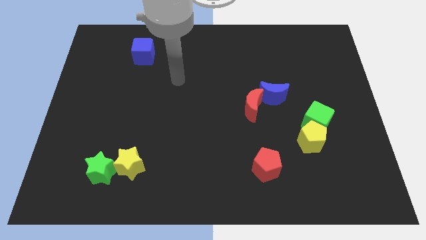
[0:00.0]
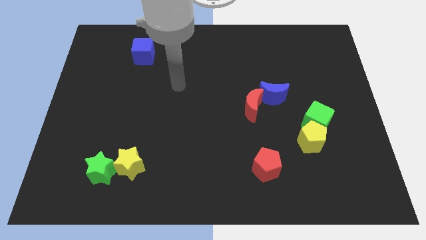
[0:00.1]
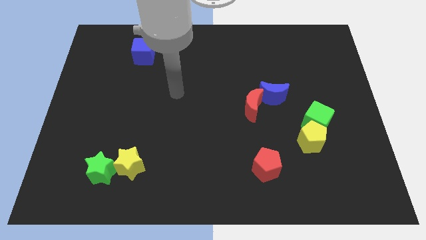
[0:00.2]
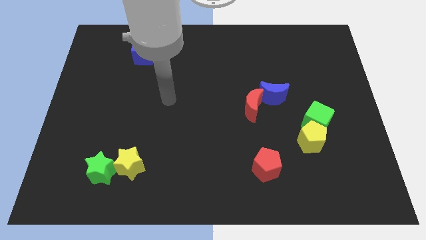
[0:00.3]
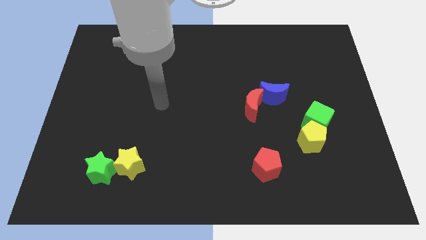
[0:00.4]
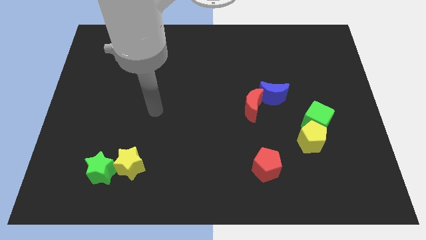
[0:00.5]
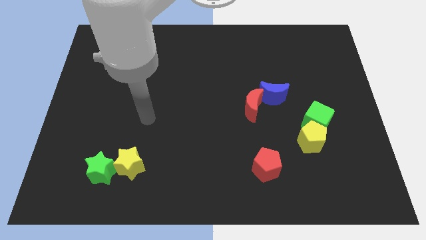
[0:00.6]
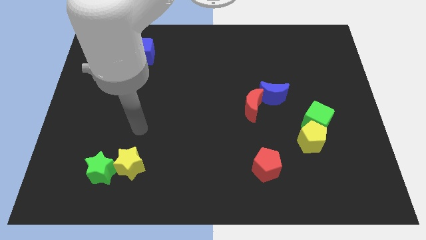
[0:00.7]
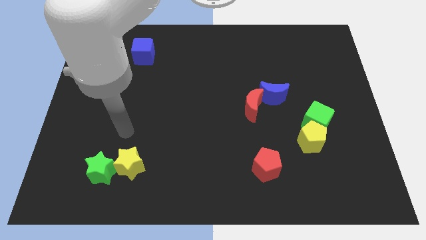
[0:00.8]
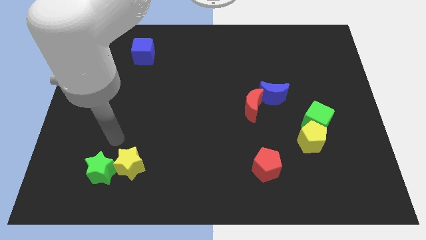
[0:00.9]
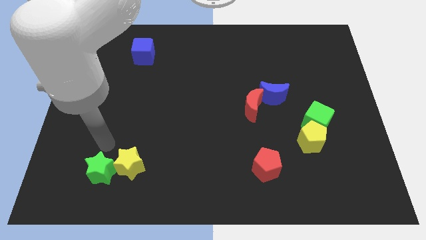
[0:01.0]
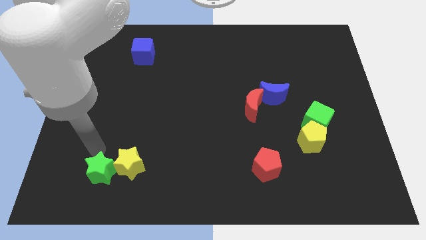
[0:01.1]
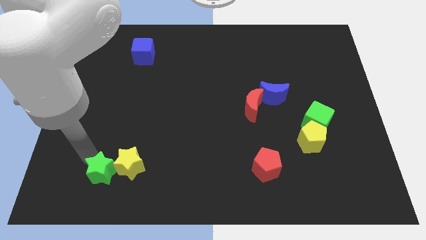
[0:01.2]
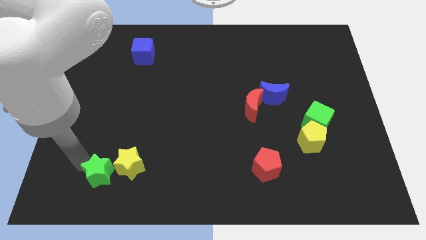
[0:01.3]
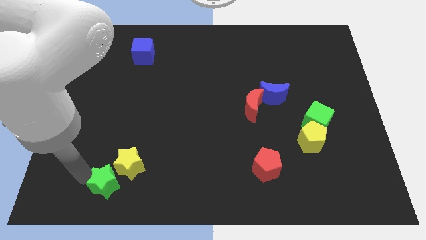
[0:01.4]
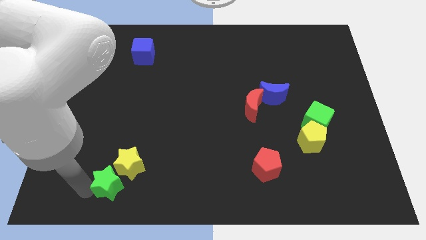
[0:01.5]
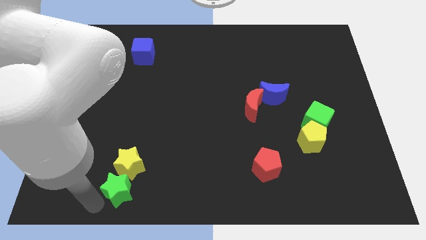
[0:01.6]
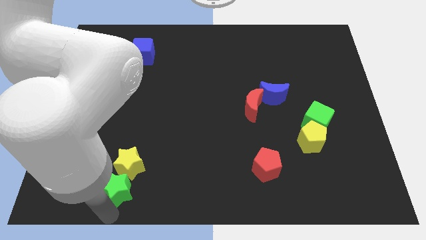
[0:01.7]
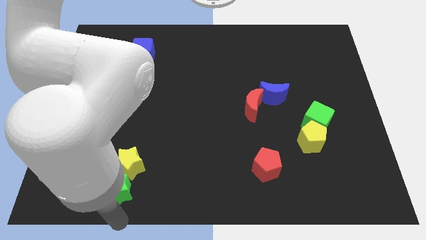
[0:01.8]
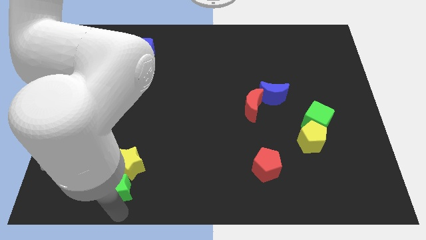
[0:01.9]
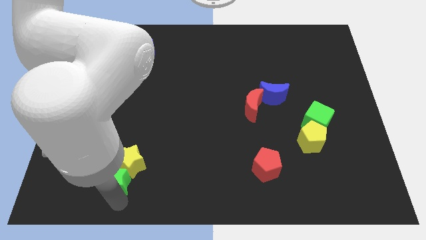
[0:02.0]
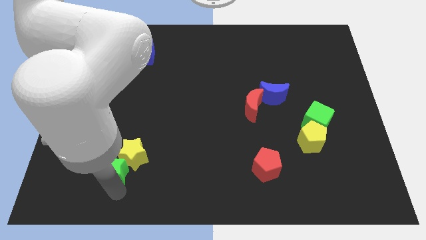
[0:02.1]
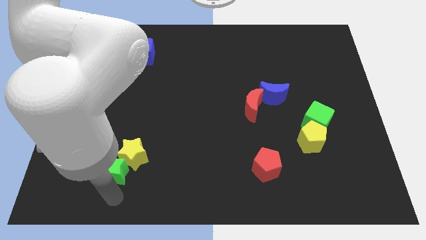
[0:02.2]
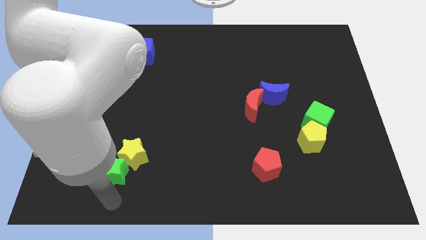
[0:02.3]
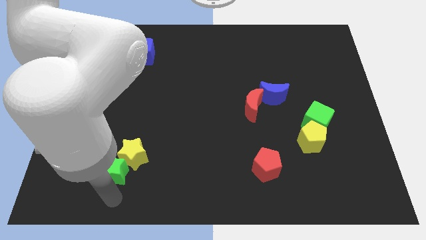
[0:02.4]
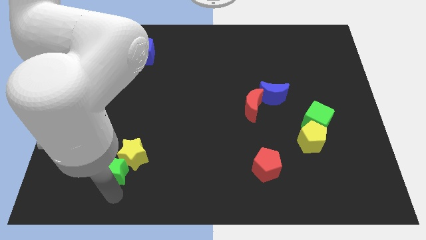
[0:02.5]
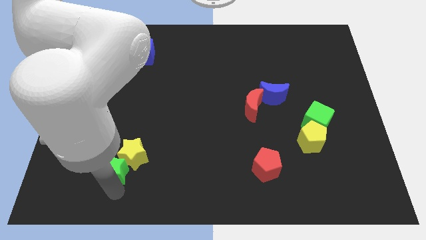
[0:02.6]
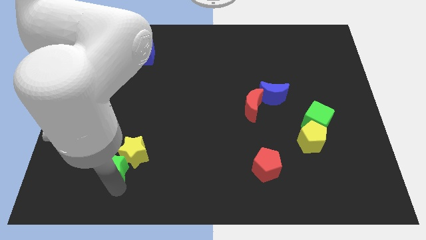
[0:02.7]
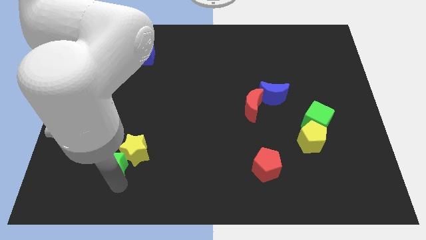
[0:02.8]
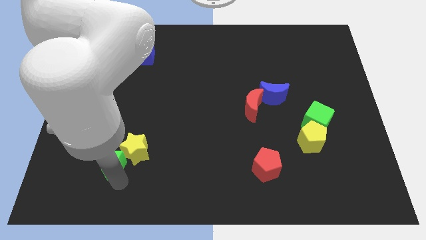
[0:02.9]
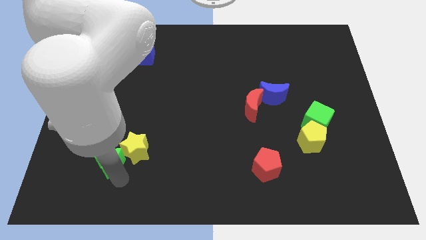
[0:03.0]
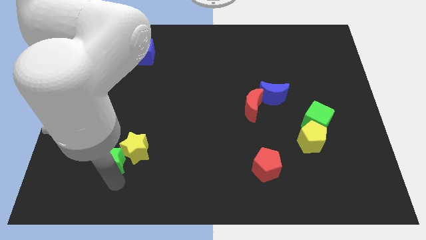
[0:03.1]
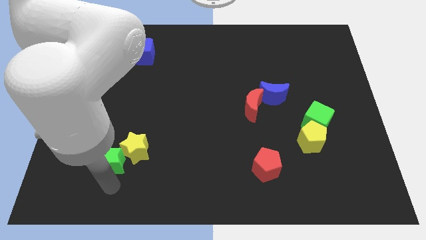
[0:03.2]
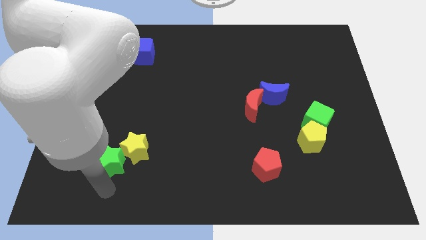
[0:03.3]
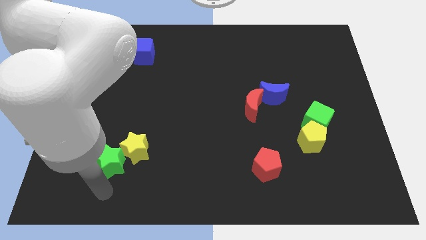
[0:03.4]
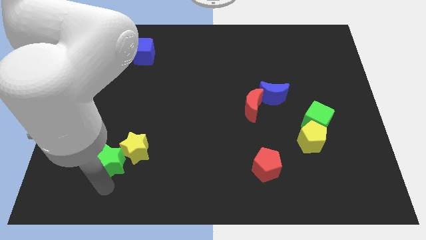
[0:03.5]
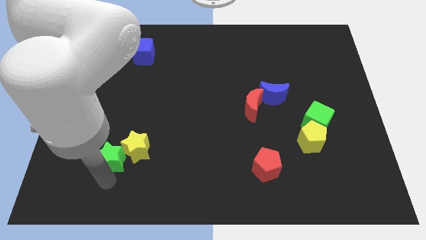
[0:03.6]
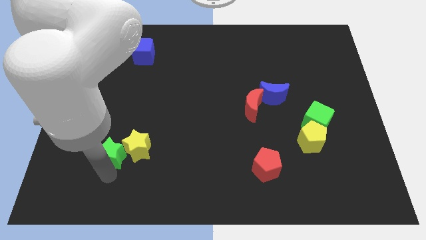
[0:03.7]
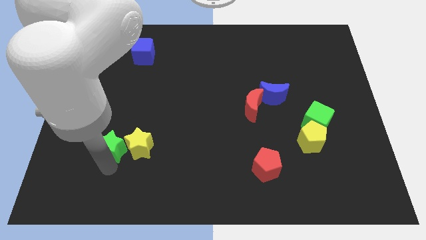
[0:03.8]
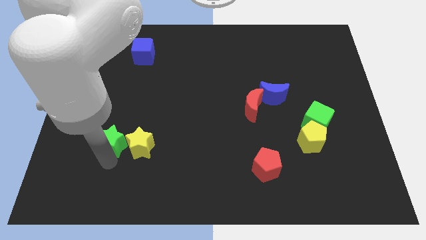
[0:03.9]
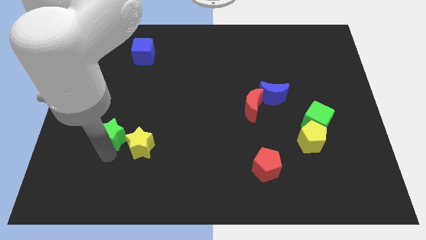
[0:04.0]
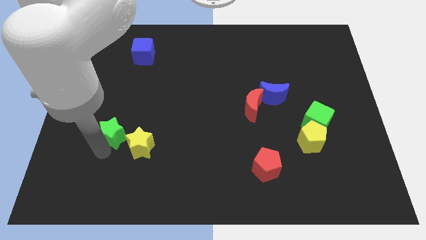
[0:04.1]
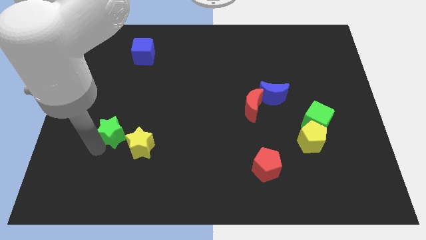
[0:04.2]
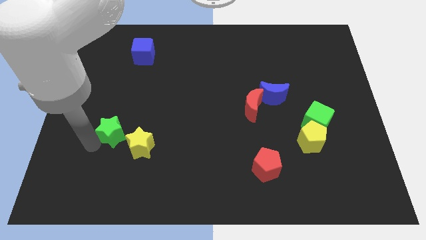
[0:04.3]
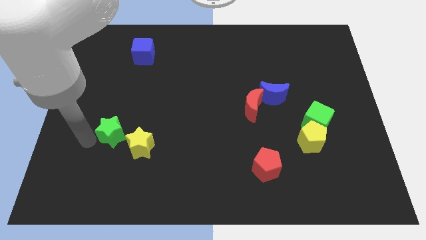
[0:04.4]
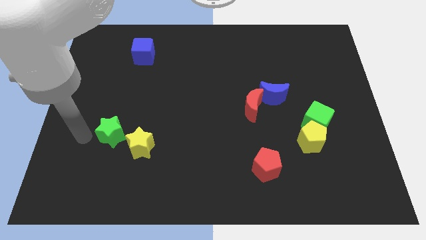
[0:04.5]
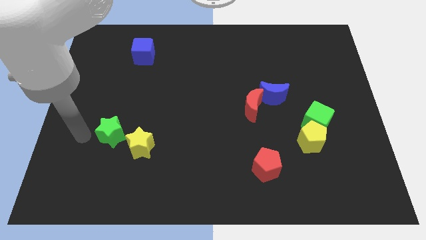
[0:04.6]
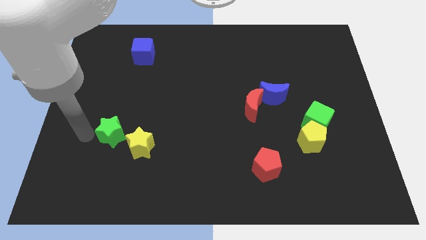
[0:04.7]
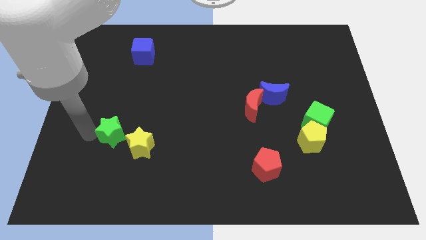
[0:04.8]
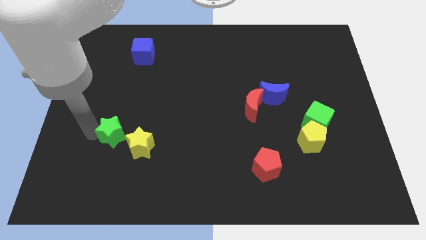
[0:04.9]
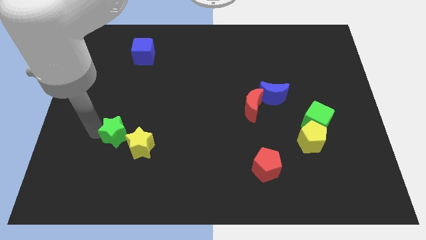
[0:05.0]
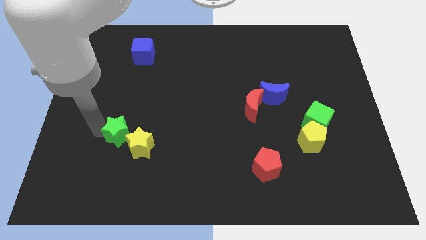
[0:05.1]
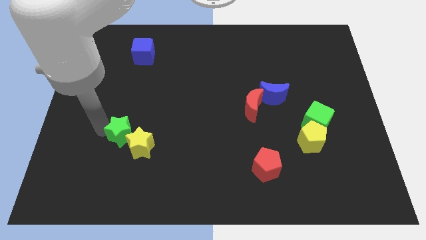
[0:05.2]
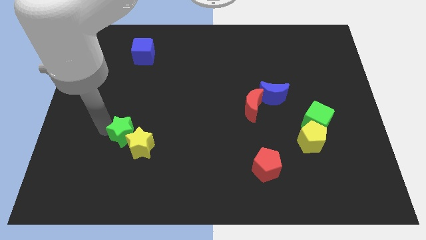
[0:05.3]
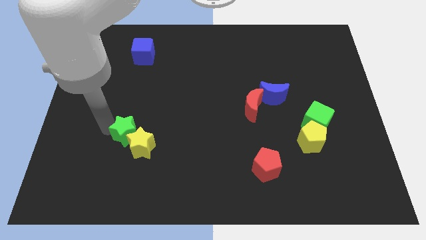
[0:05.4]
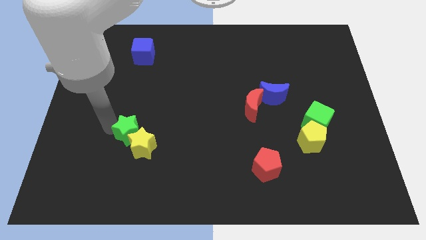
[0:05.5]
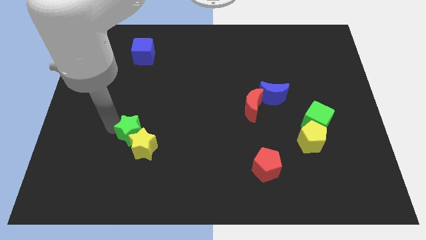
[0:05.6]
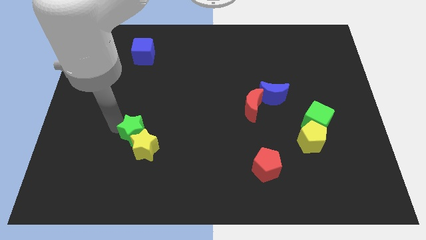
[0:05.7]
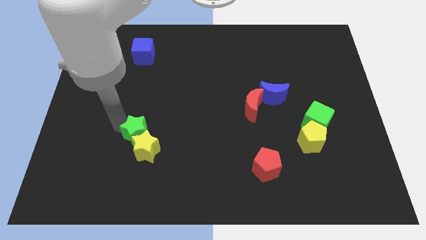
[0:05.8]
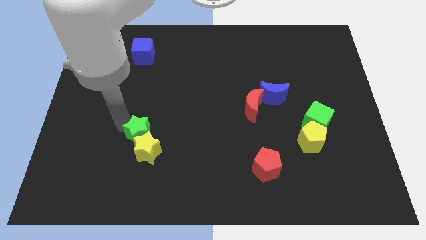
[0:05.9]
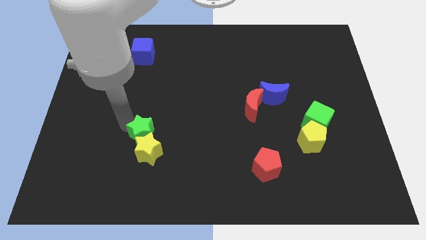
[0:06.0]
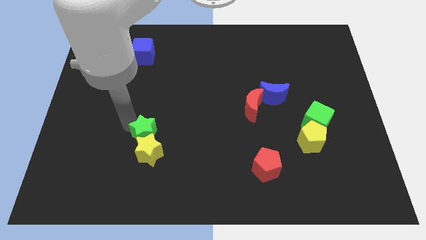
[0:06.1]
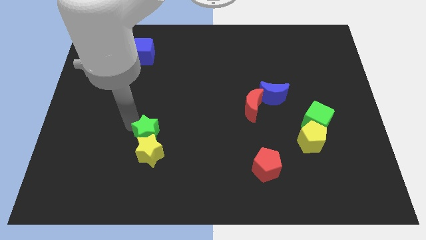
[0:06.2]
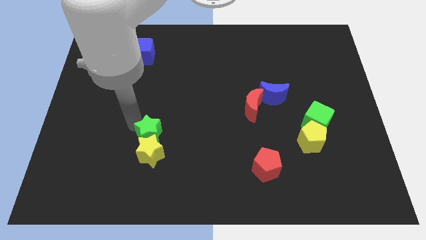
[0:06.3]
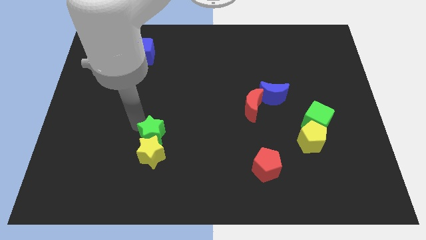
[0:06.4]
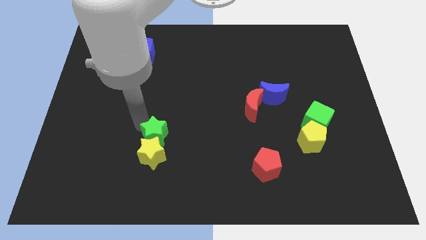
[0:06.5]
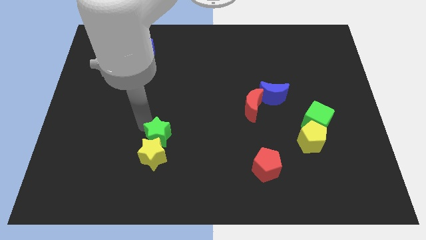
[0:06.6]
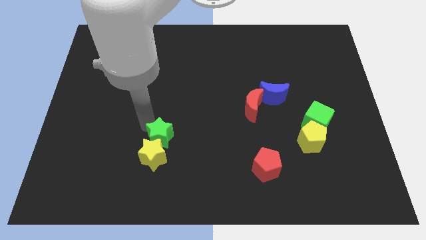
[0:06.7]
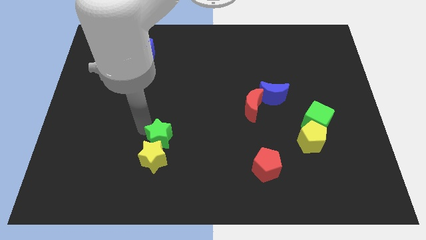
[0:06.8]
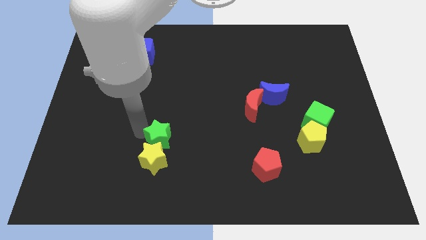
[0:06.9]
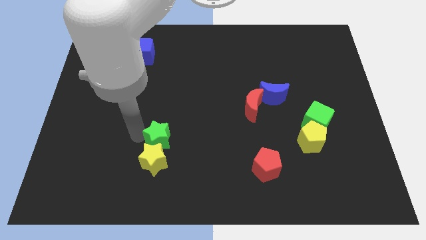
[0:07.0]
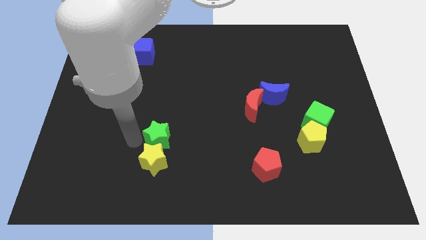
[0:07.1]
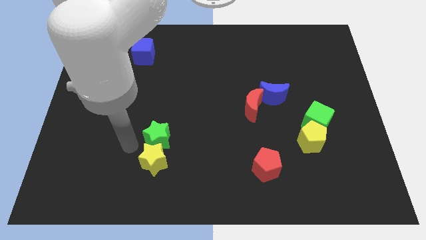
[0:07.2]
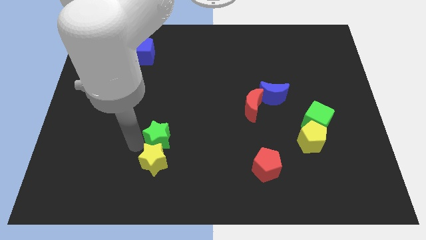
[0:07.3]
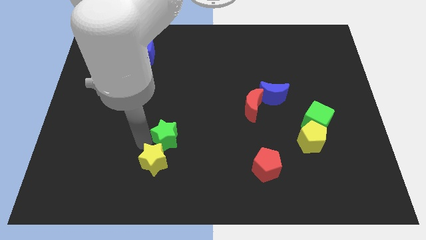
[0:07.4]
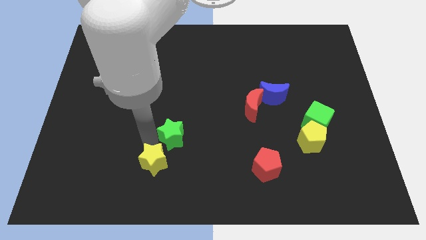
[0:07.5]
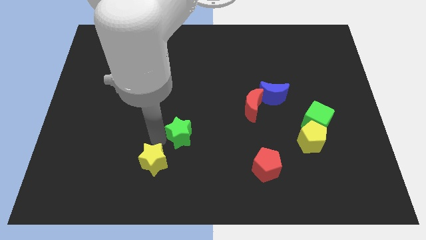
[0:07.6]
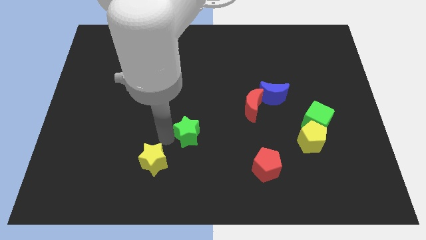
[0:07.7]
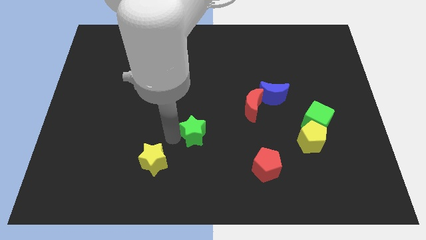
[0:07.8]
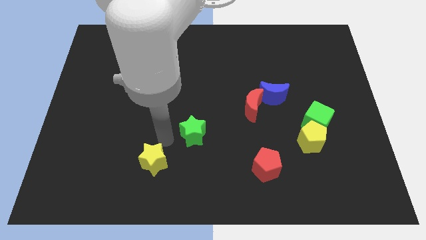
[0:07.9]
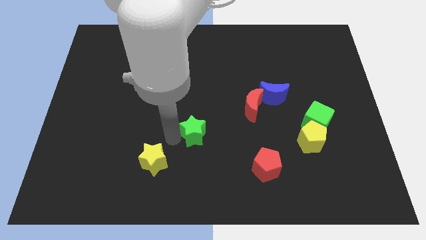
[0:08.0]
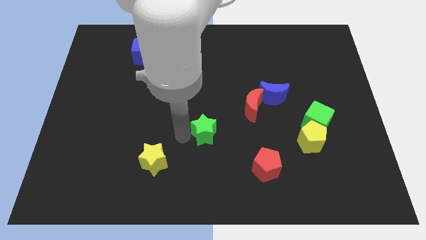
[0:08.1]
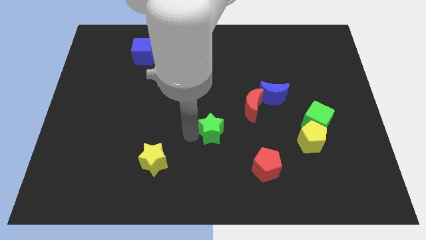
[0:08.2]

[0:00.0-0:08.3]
move the green star to the bottom left side of the red moon
